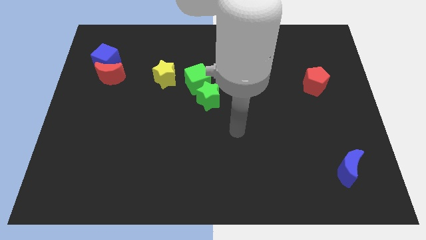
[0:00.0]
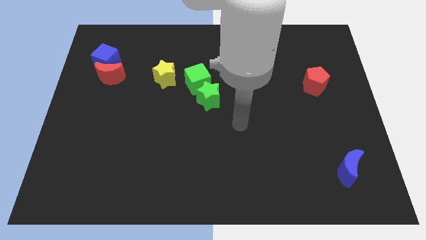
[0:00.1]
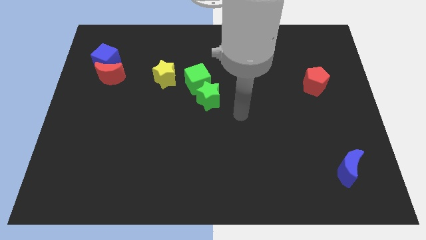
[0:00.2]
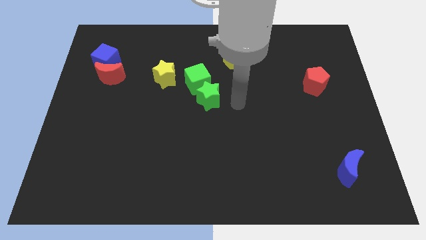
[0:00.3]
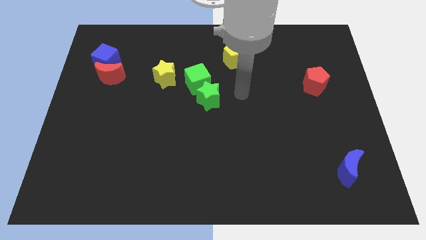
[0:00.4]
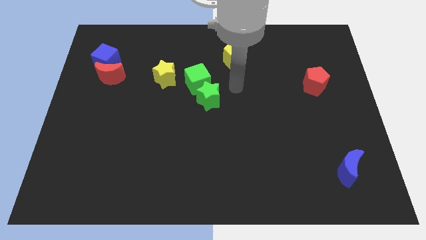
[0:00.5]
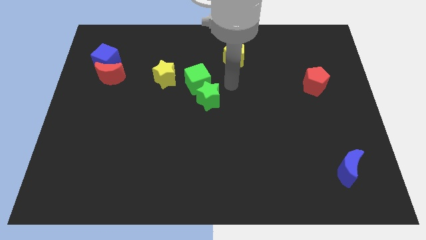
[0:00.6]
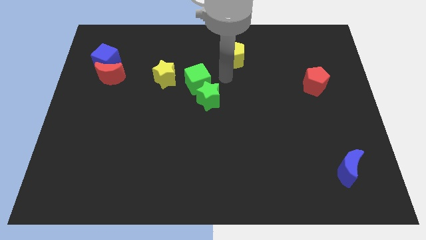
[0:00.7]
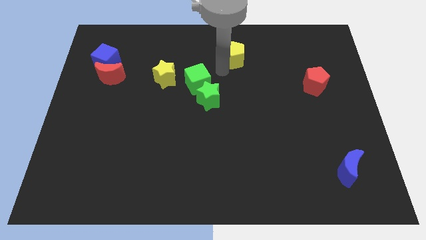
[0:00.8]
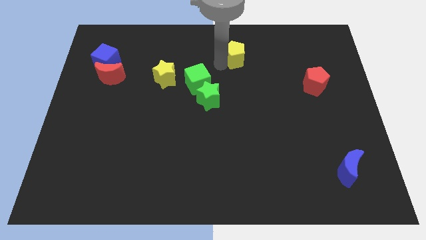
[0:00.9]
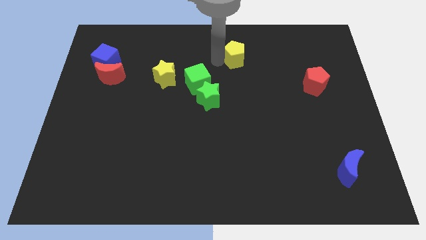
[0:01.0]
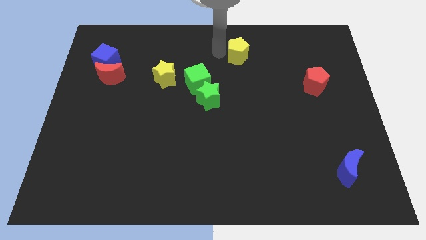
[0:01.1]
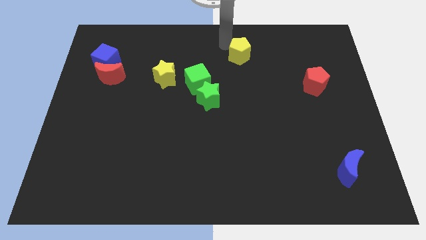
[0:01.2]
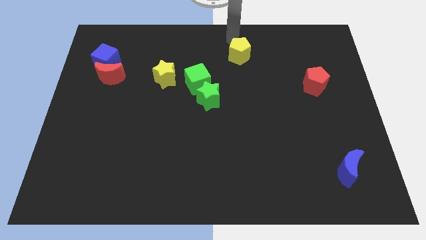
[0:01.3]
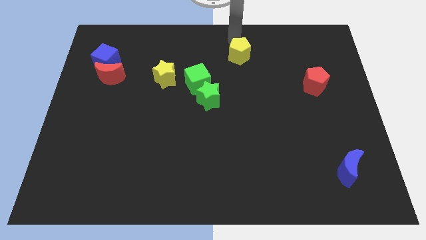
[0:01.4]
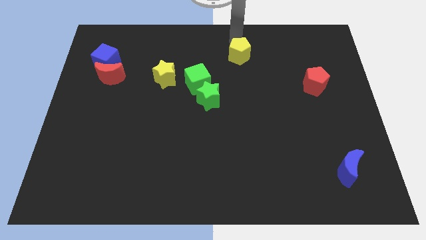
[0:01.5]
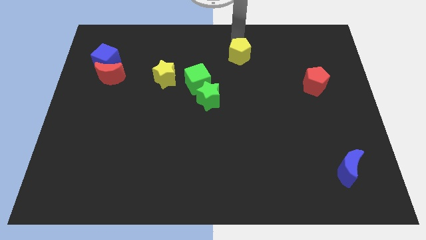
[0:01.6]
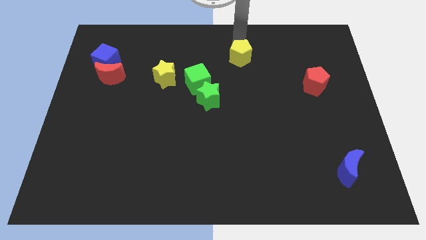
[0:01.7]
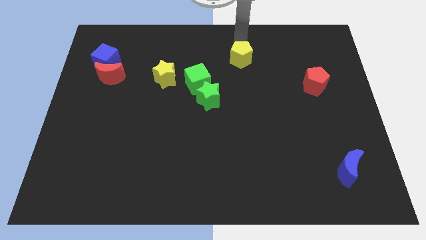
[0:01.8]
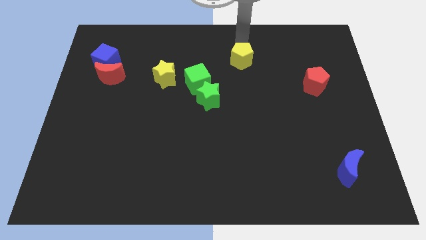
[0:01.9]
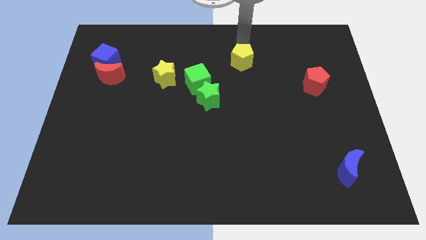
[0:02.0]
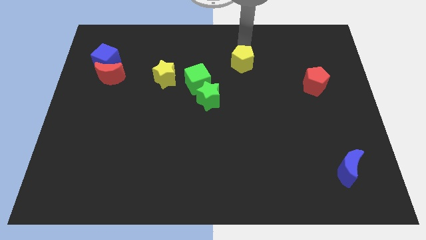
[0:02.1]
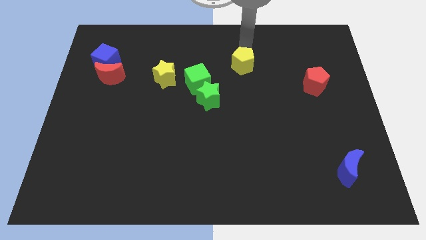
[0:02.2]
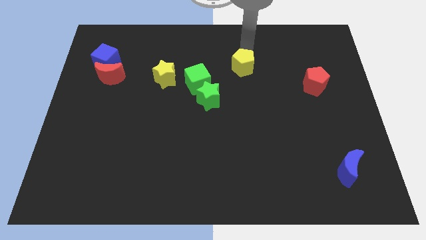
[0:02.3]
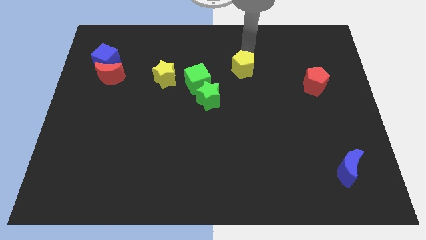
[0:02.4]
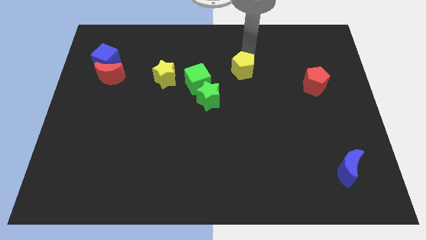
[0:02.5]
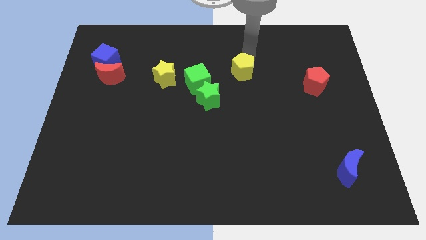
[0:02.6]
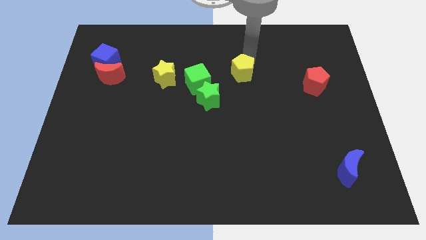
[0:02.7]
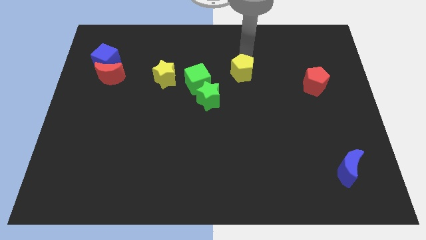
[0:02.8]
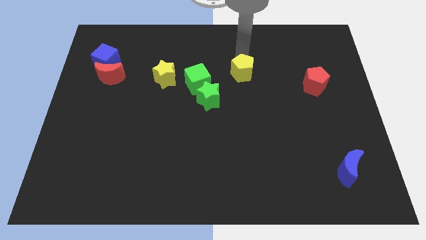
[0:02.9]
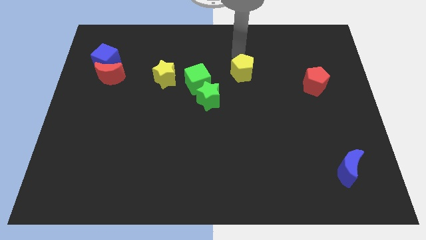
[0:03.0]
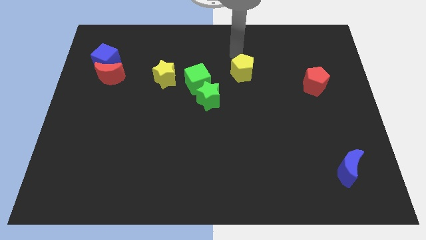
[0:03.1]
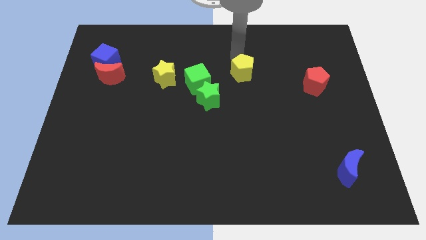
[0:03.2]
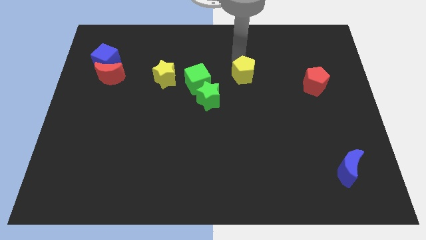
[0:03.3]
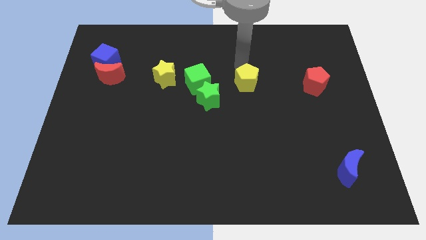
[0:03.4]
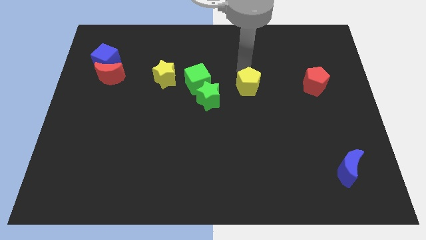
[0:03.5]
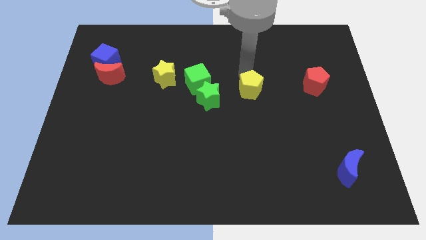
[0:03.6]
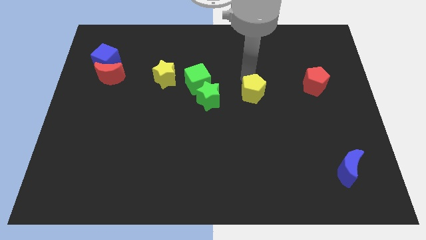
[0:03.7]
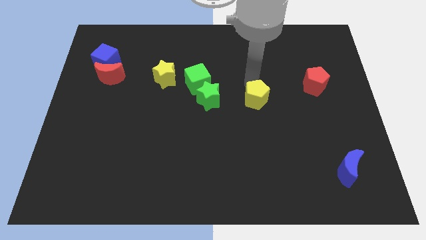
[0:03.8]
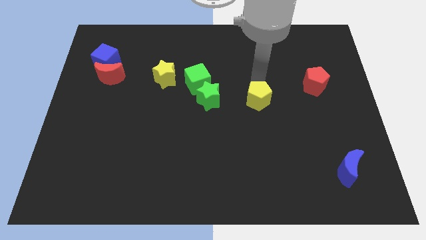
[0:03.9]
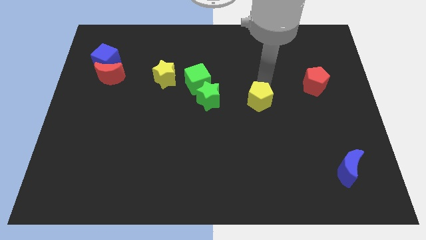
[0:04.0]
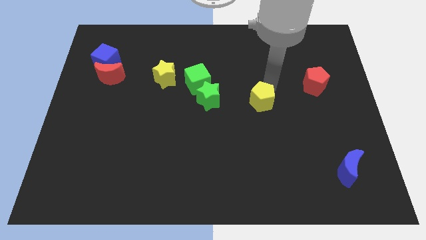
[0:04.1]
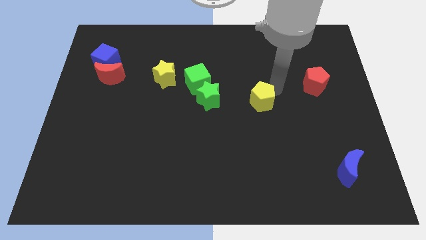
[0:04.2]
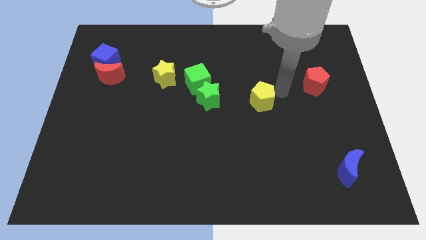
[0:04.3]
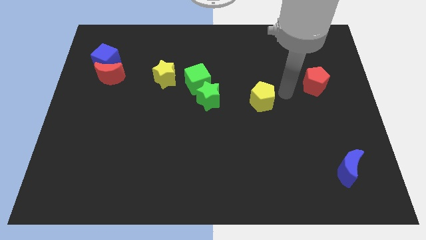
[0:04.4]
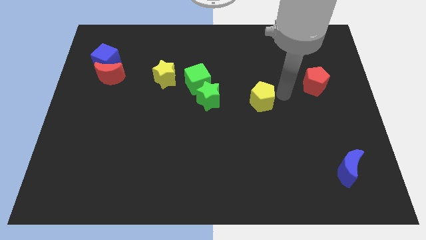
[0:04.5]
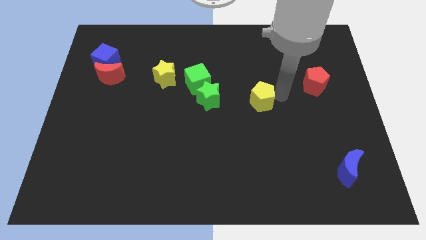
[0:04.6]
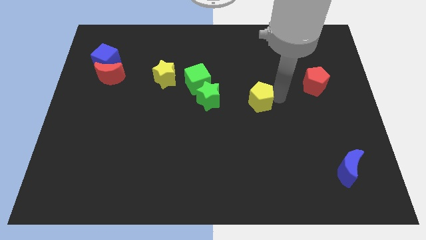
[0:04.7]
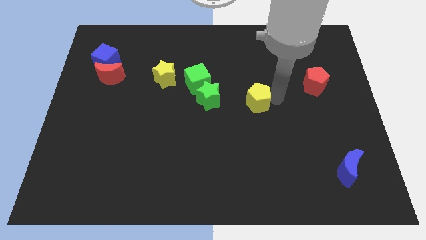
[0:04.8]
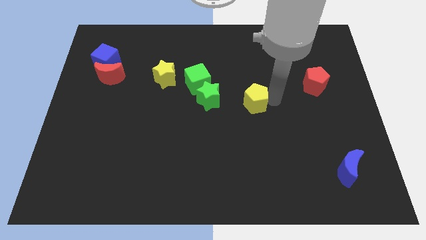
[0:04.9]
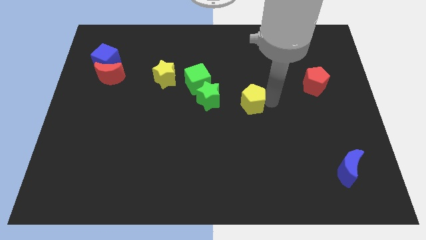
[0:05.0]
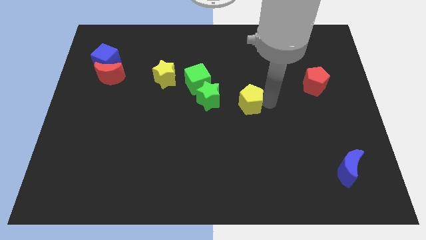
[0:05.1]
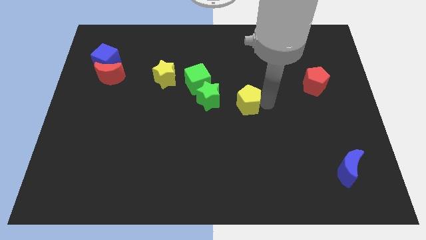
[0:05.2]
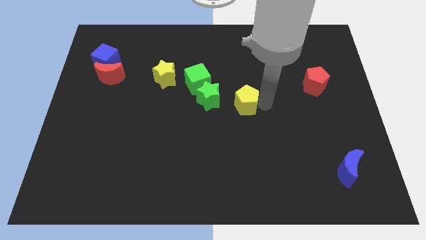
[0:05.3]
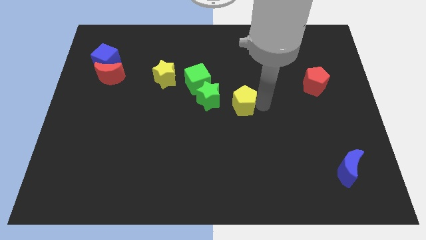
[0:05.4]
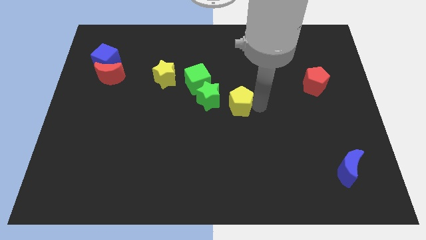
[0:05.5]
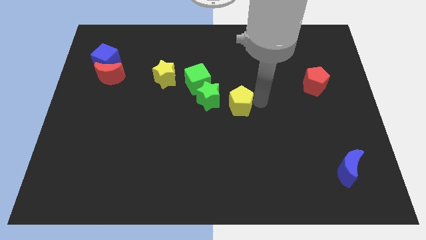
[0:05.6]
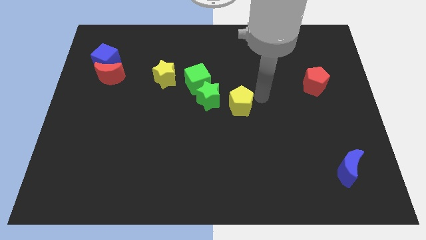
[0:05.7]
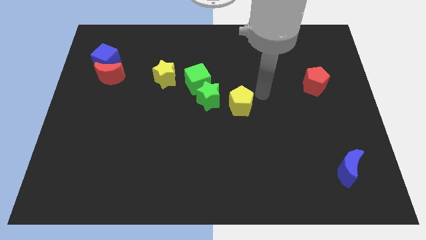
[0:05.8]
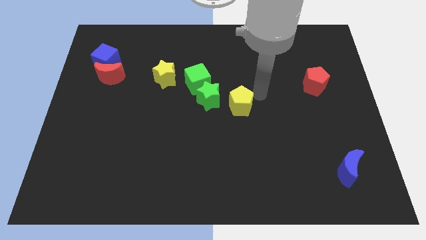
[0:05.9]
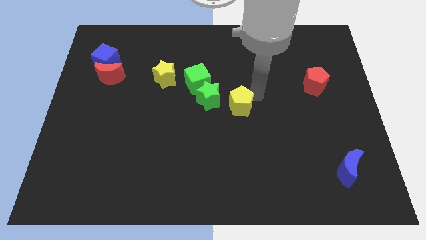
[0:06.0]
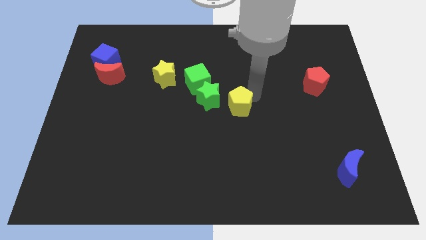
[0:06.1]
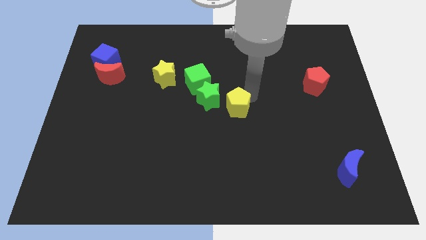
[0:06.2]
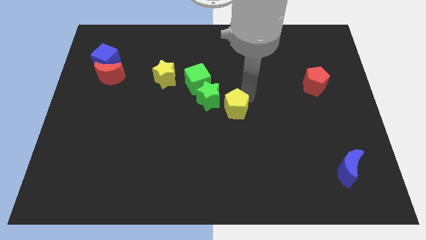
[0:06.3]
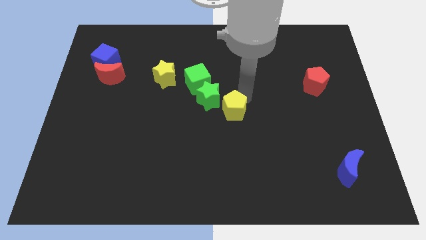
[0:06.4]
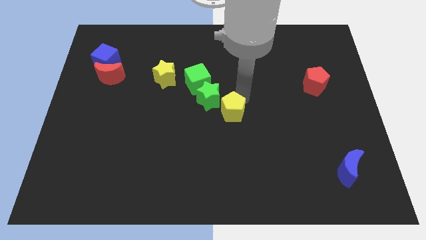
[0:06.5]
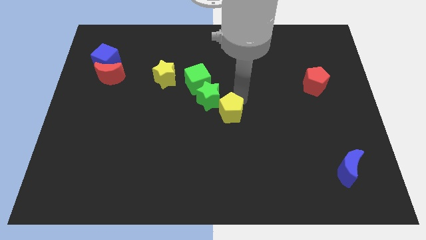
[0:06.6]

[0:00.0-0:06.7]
slide the yellow pentagon a bit diagonally downwards and to the left

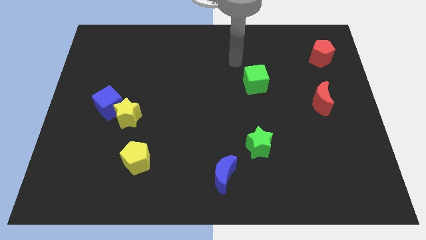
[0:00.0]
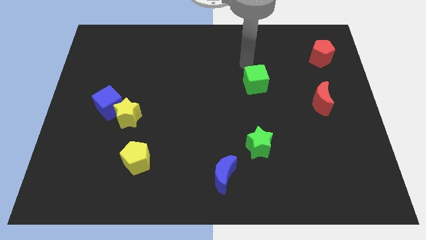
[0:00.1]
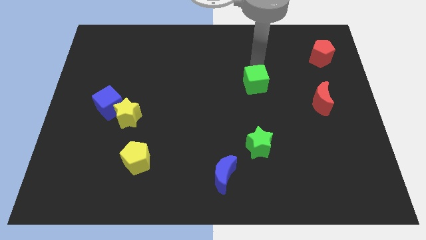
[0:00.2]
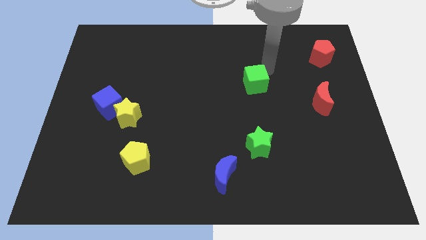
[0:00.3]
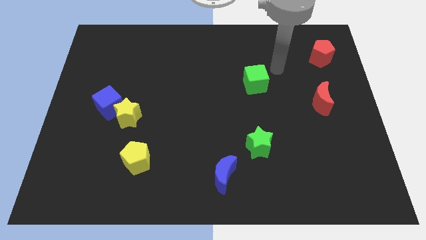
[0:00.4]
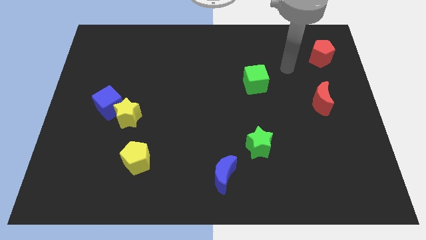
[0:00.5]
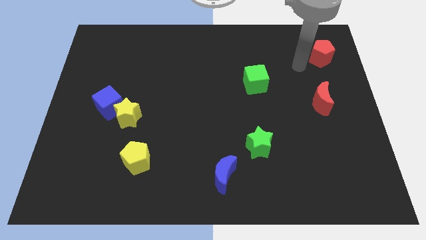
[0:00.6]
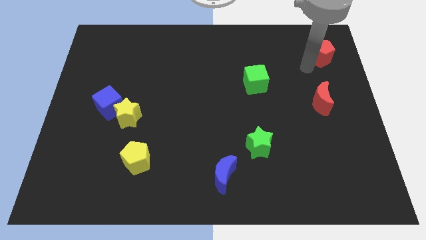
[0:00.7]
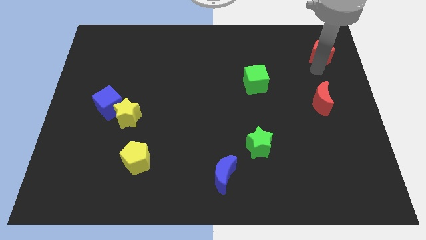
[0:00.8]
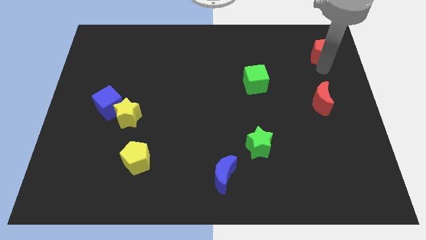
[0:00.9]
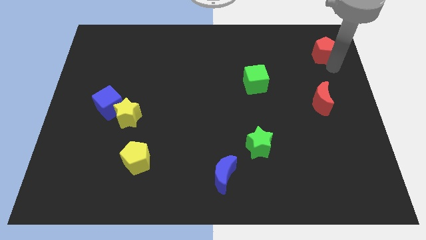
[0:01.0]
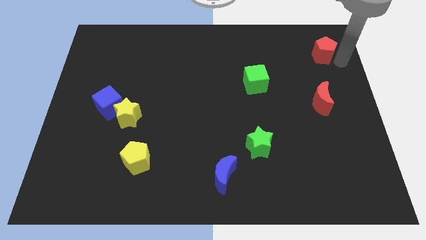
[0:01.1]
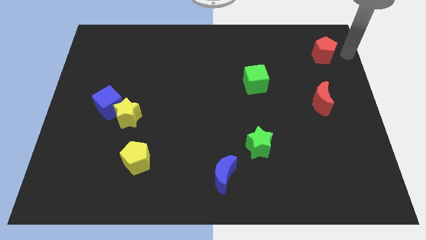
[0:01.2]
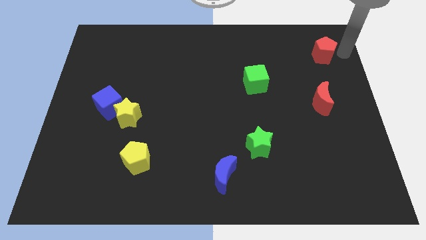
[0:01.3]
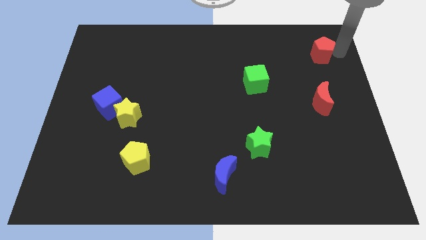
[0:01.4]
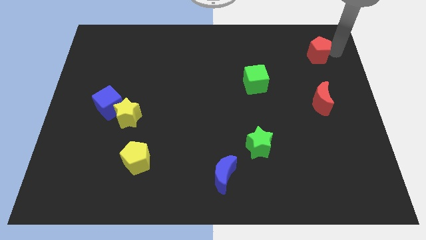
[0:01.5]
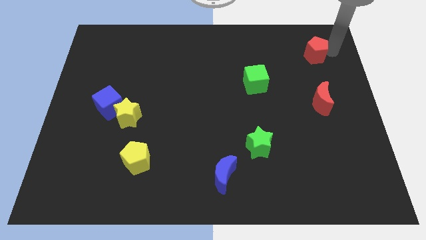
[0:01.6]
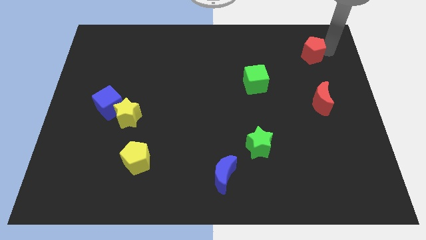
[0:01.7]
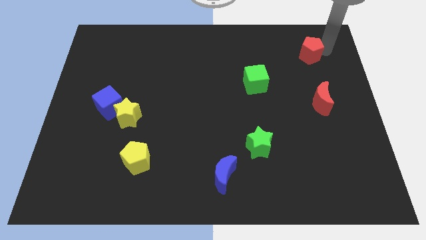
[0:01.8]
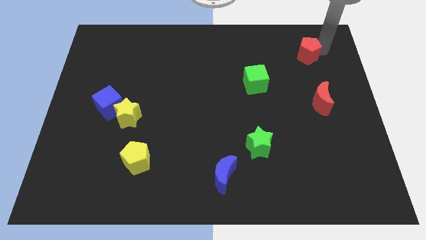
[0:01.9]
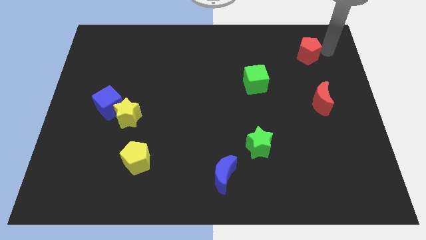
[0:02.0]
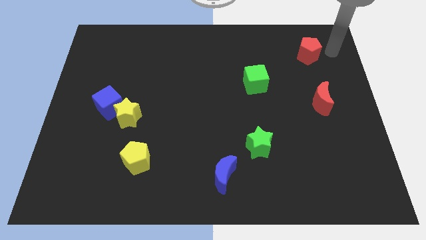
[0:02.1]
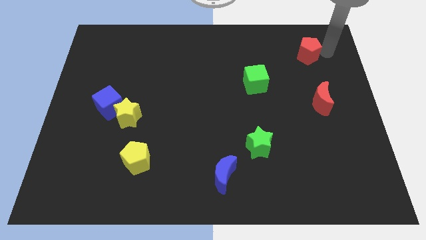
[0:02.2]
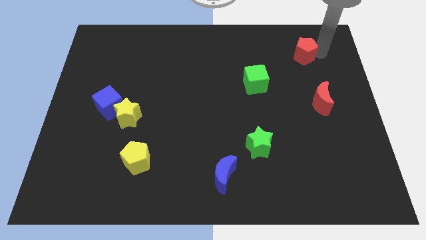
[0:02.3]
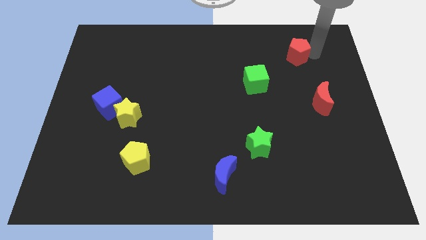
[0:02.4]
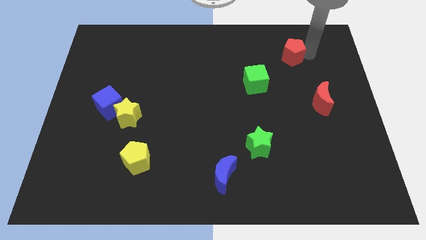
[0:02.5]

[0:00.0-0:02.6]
push the red pentagon to the left slightly
